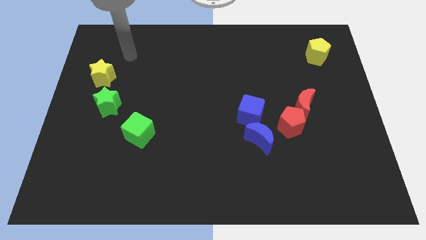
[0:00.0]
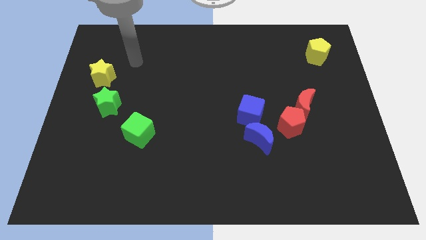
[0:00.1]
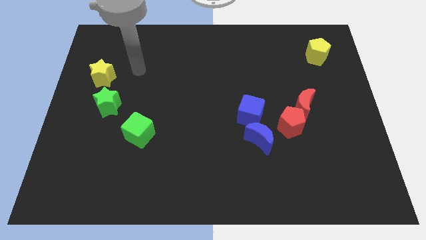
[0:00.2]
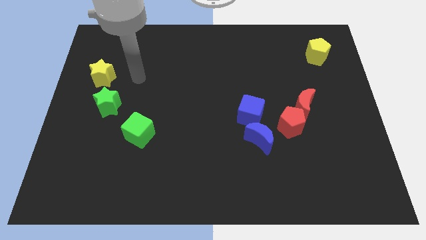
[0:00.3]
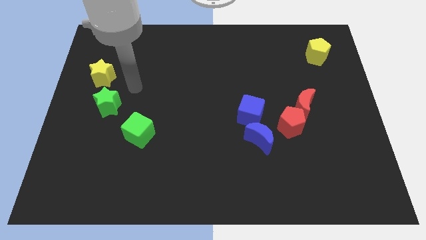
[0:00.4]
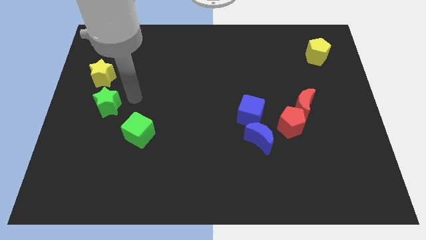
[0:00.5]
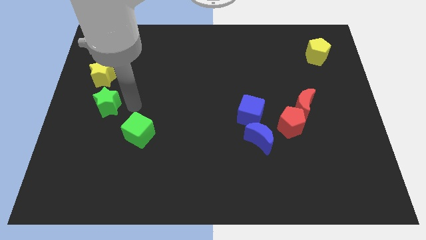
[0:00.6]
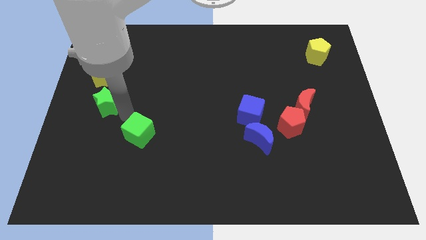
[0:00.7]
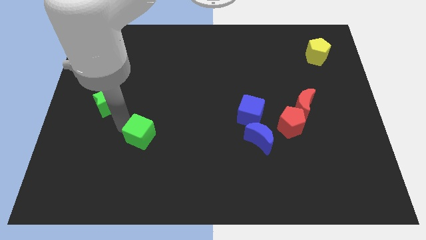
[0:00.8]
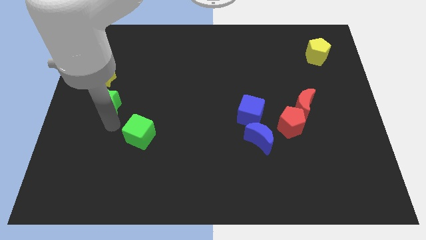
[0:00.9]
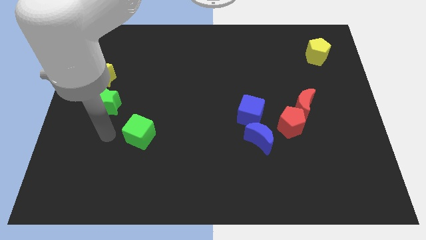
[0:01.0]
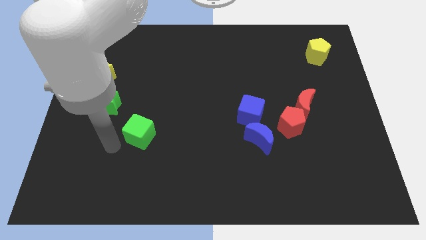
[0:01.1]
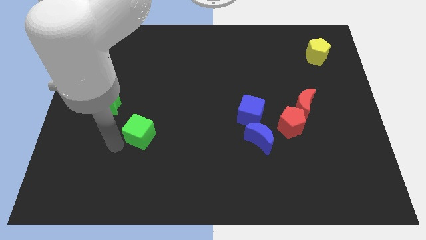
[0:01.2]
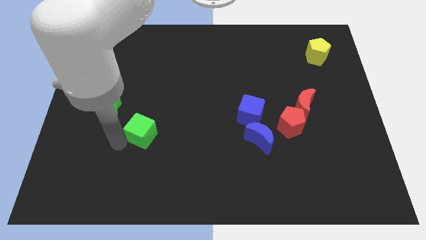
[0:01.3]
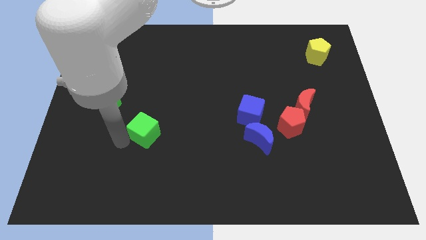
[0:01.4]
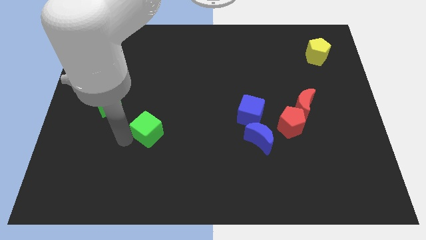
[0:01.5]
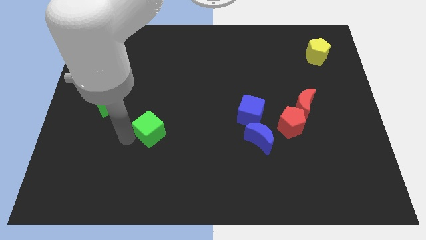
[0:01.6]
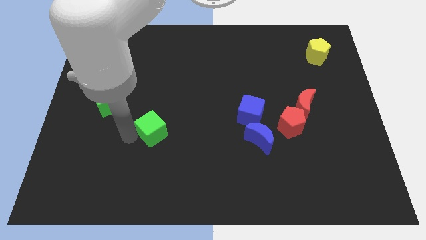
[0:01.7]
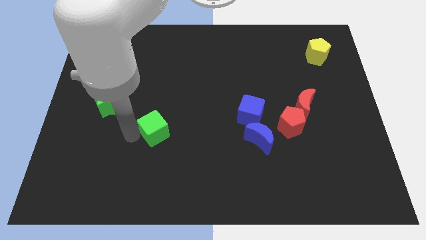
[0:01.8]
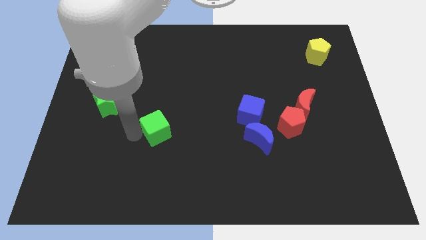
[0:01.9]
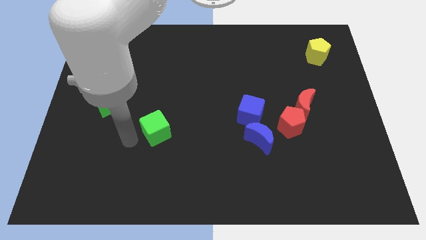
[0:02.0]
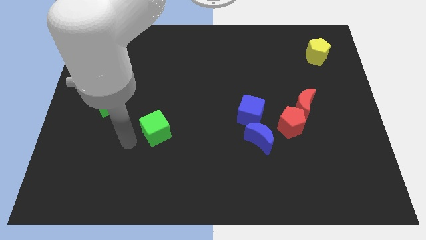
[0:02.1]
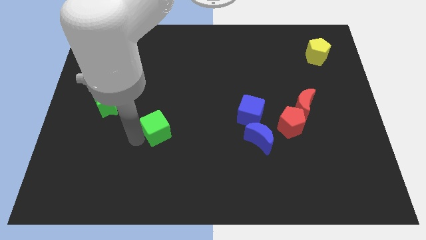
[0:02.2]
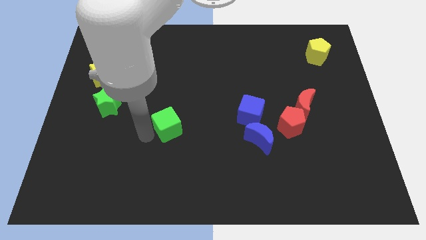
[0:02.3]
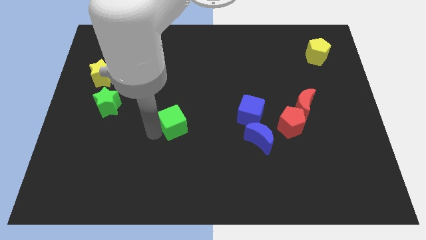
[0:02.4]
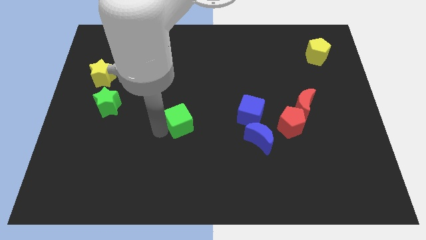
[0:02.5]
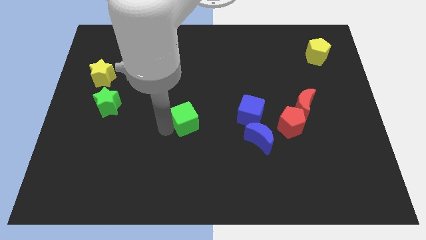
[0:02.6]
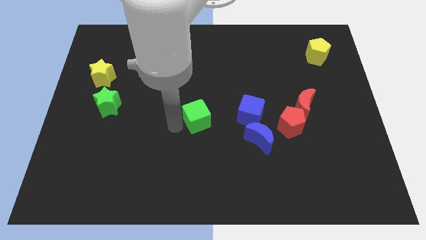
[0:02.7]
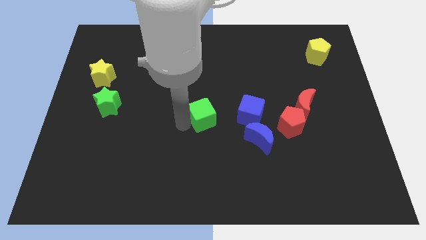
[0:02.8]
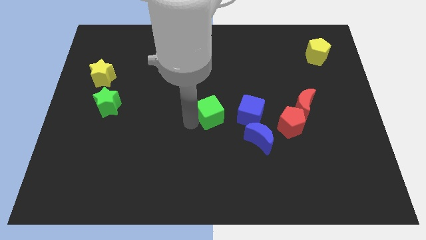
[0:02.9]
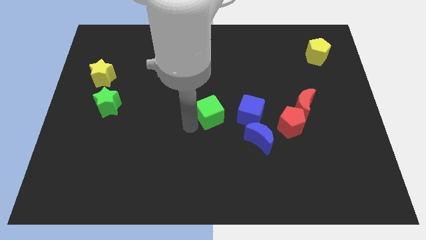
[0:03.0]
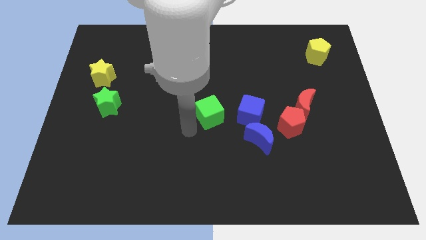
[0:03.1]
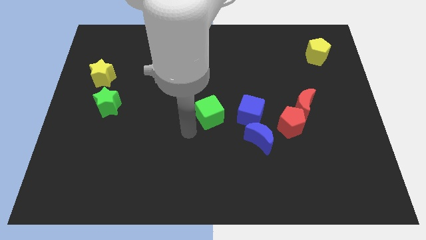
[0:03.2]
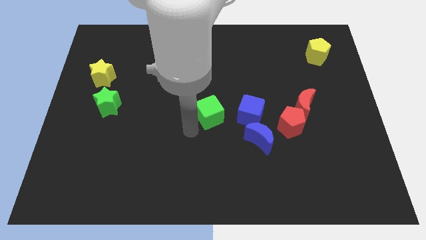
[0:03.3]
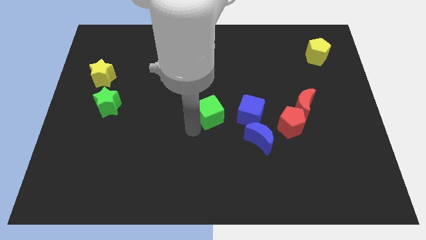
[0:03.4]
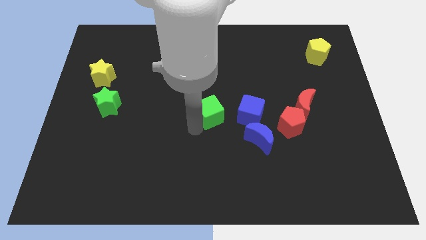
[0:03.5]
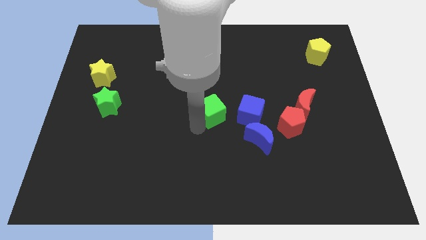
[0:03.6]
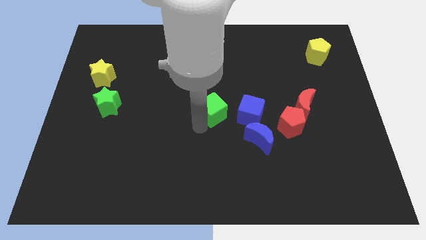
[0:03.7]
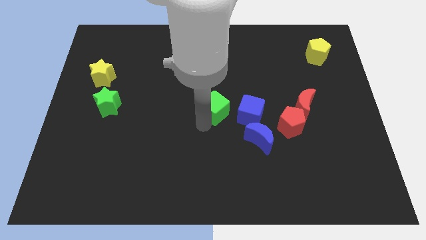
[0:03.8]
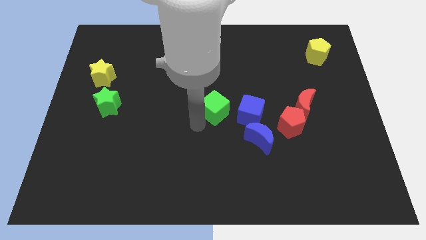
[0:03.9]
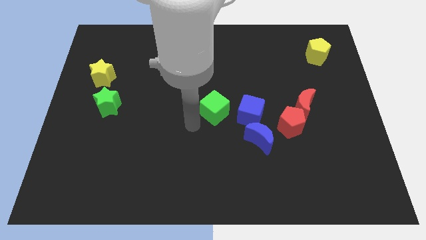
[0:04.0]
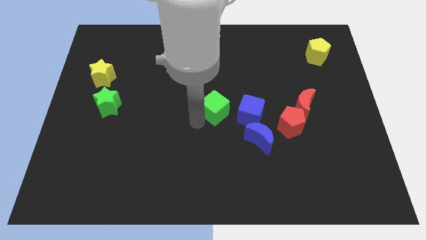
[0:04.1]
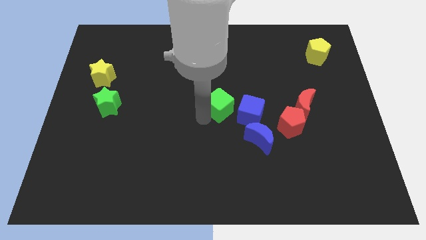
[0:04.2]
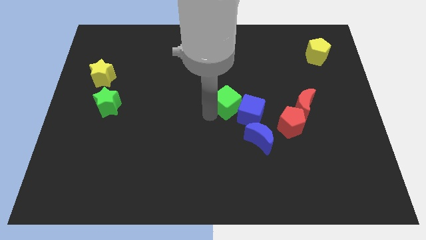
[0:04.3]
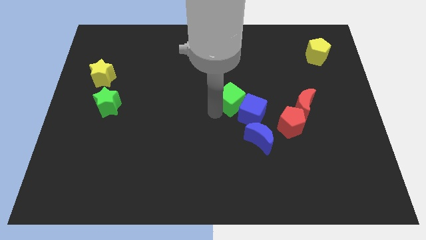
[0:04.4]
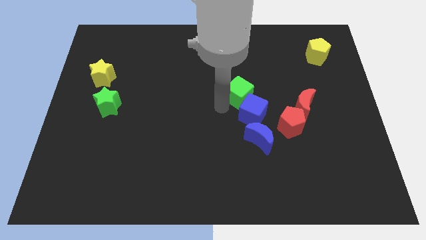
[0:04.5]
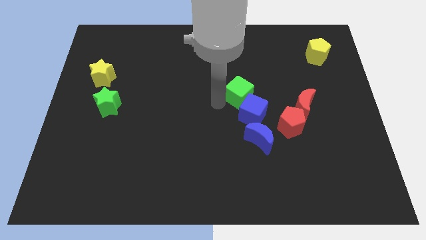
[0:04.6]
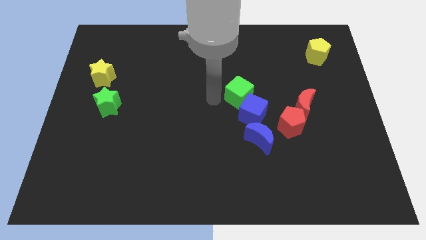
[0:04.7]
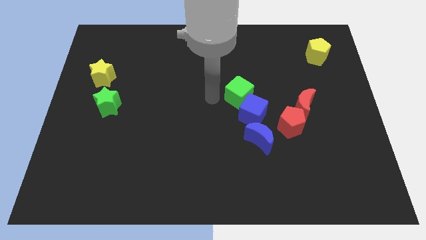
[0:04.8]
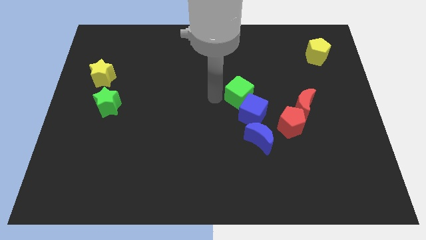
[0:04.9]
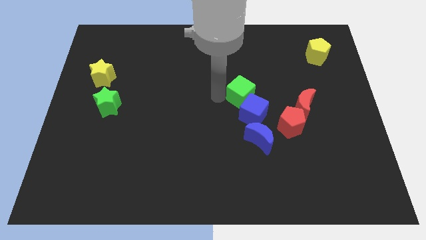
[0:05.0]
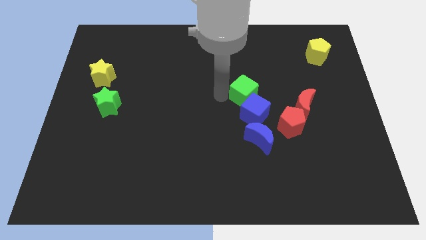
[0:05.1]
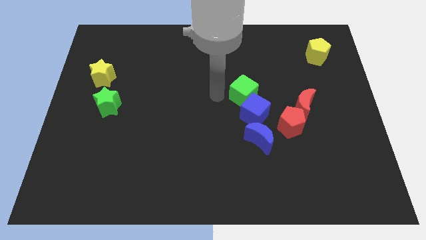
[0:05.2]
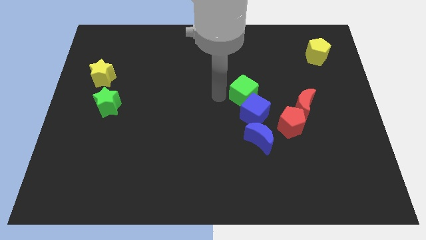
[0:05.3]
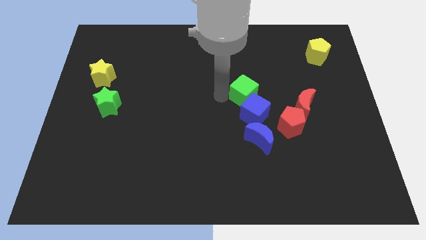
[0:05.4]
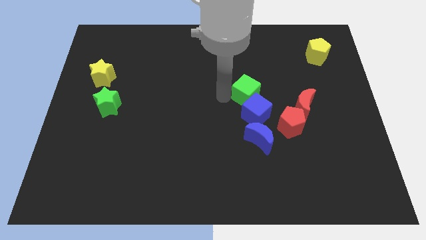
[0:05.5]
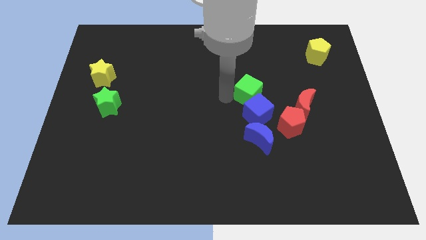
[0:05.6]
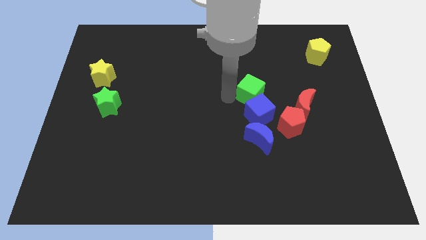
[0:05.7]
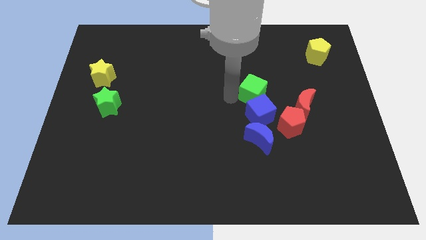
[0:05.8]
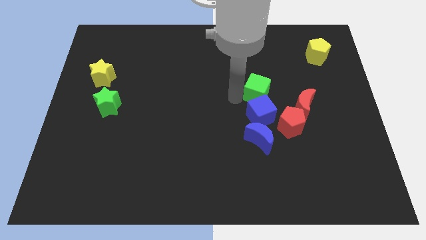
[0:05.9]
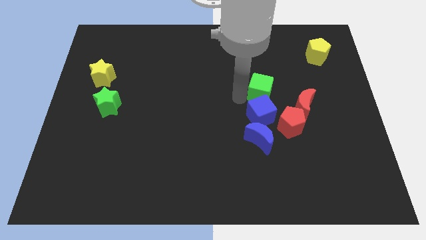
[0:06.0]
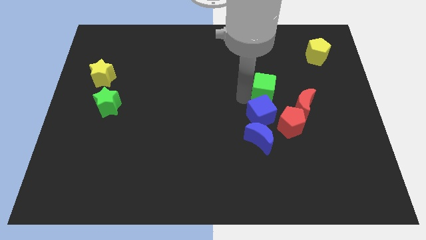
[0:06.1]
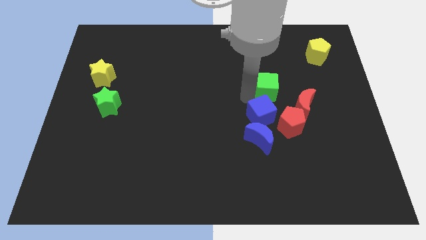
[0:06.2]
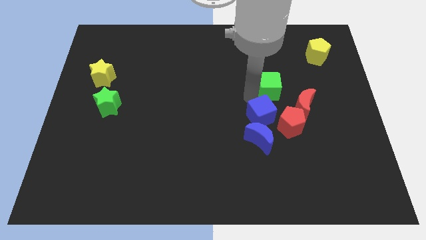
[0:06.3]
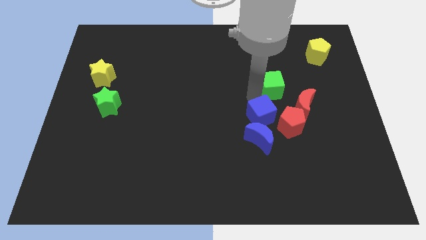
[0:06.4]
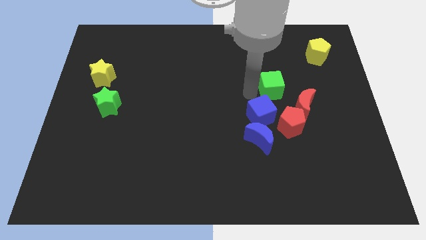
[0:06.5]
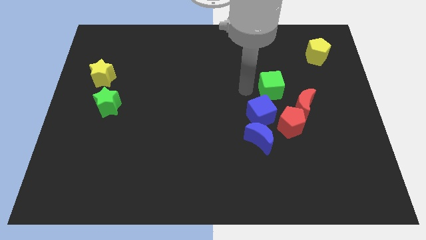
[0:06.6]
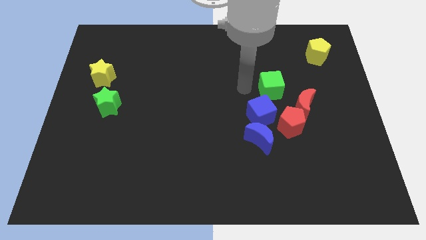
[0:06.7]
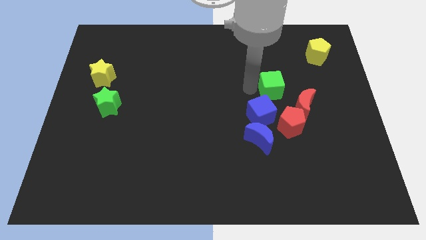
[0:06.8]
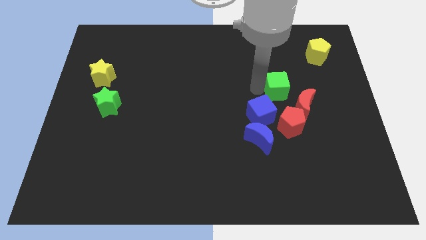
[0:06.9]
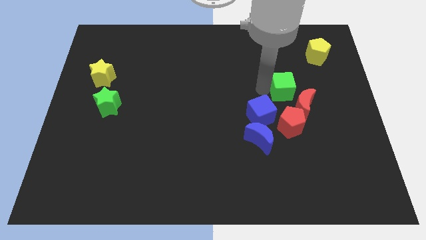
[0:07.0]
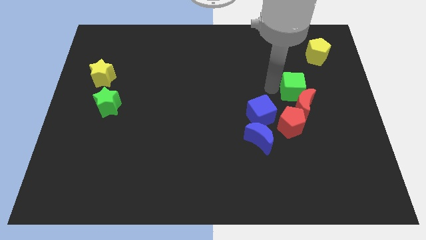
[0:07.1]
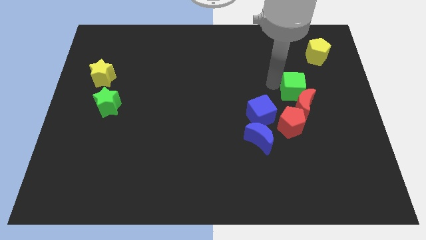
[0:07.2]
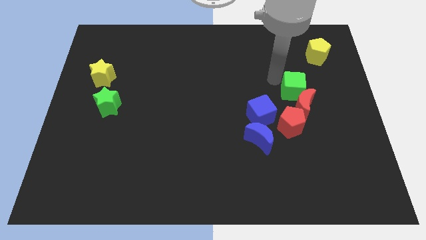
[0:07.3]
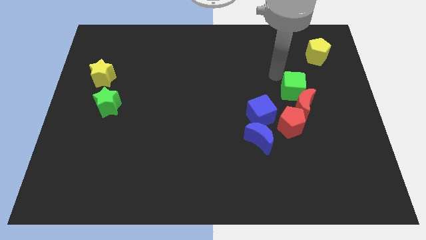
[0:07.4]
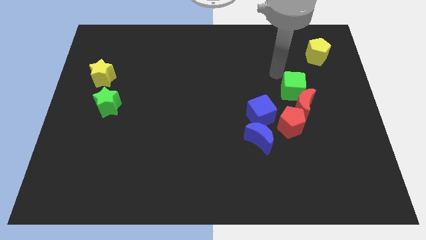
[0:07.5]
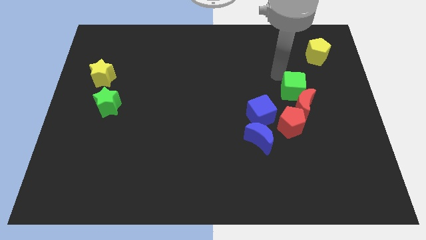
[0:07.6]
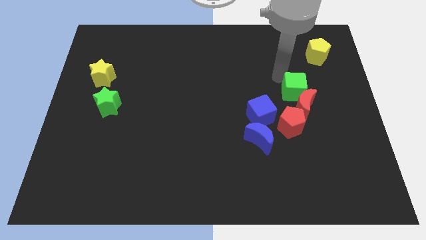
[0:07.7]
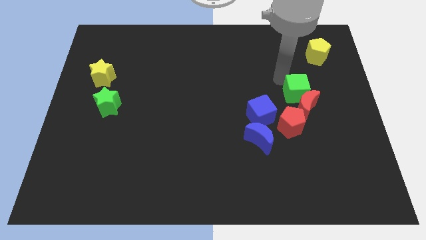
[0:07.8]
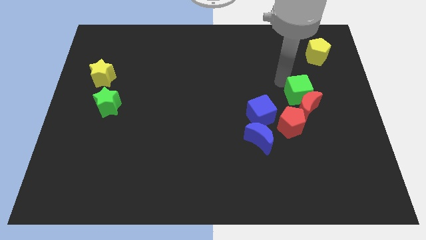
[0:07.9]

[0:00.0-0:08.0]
push the green cube to the top right of the red pentagon

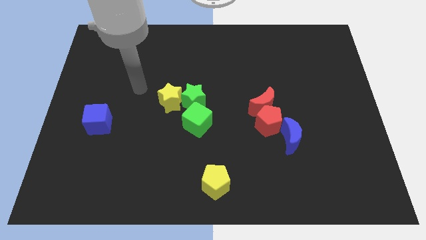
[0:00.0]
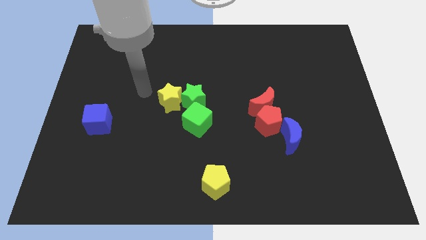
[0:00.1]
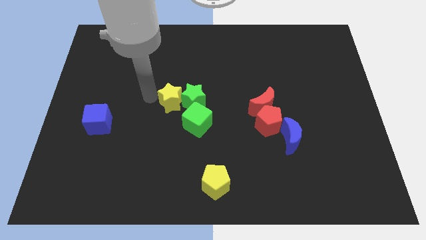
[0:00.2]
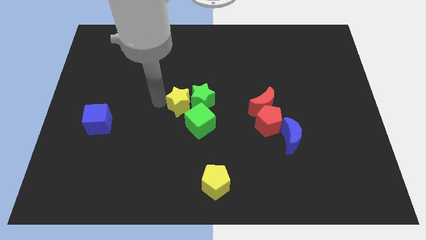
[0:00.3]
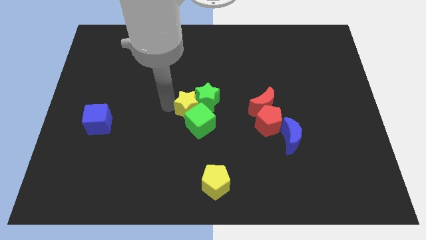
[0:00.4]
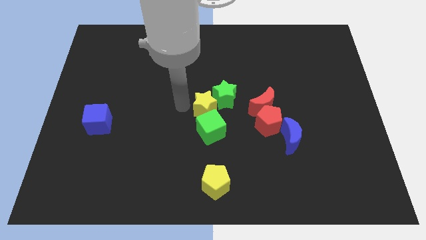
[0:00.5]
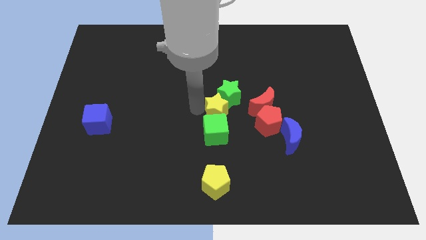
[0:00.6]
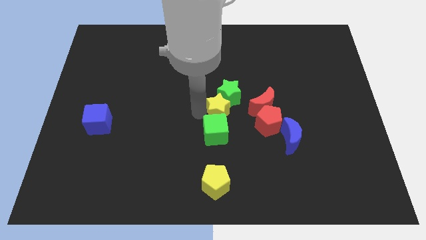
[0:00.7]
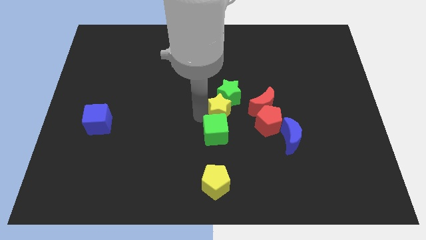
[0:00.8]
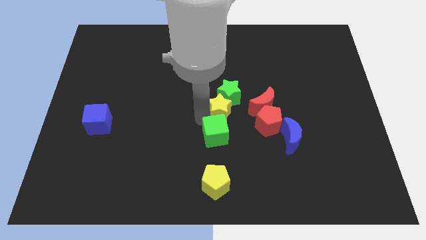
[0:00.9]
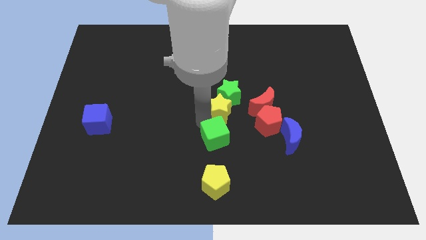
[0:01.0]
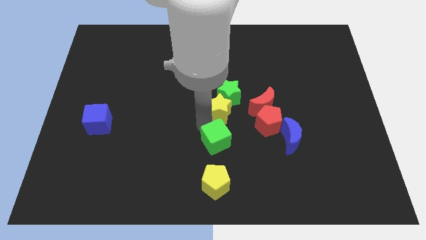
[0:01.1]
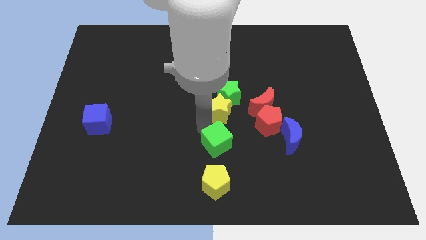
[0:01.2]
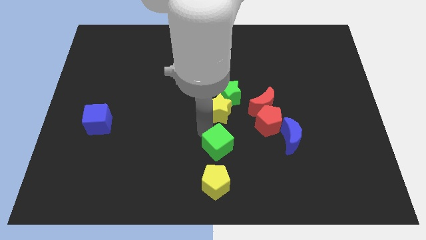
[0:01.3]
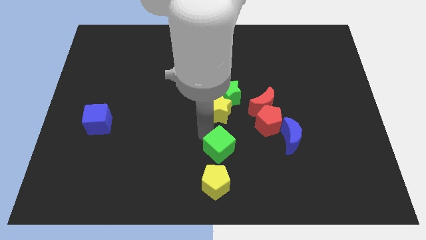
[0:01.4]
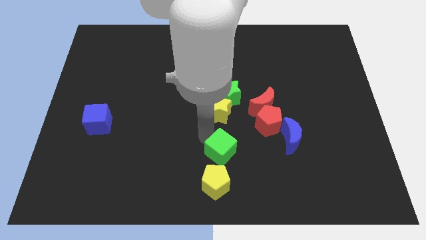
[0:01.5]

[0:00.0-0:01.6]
move the green cube diagonally up and to the right of the yellow pentagon
